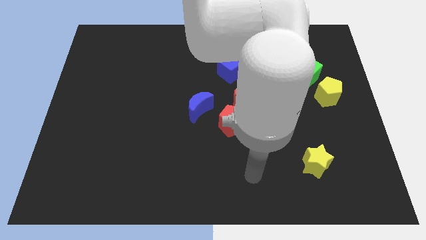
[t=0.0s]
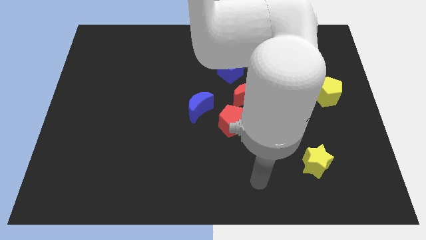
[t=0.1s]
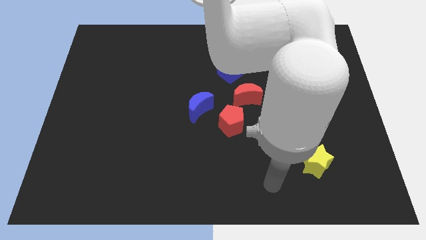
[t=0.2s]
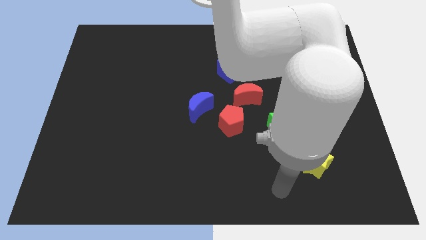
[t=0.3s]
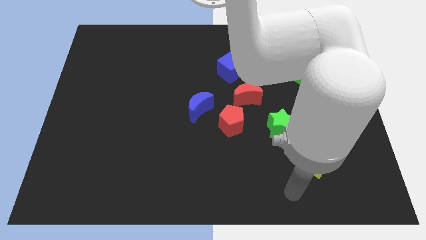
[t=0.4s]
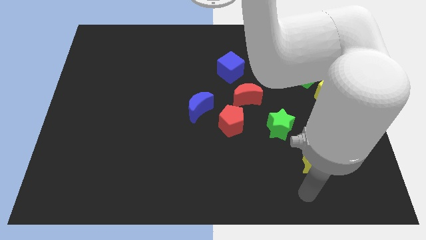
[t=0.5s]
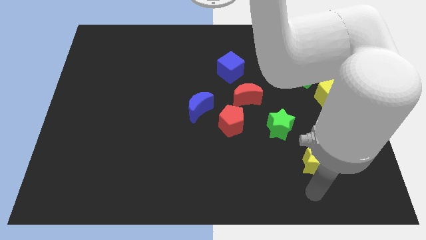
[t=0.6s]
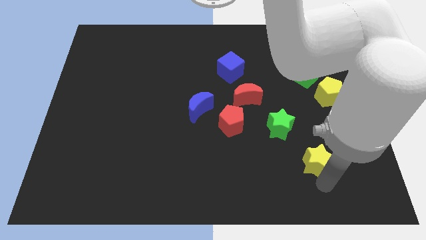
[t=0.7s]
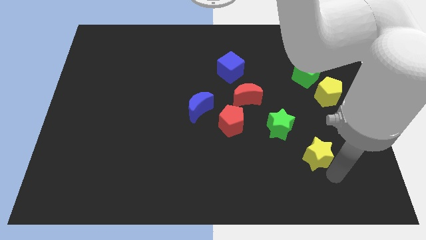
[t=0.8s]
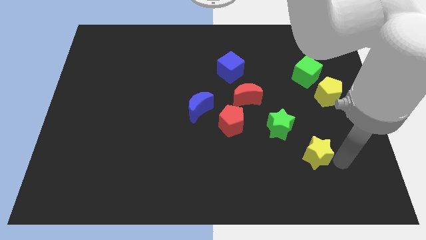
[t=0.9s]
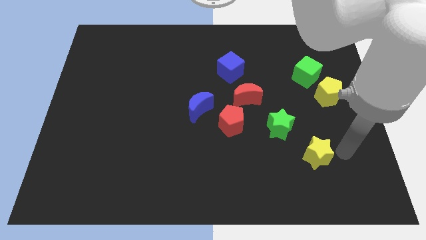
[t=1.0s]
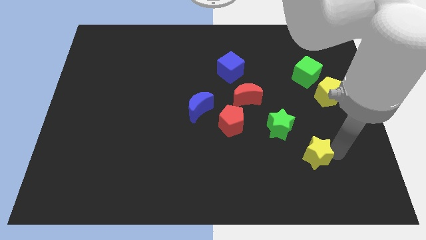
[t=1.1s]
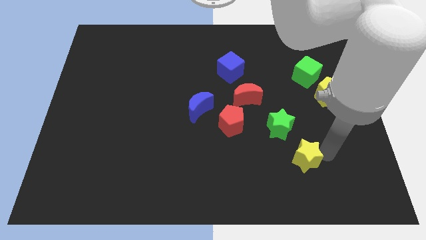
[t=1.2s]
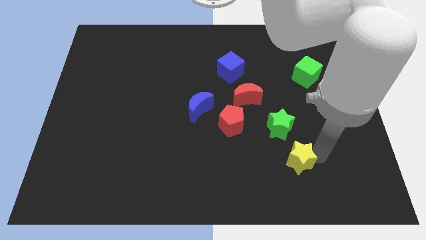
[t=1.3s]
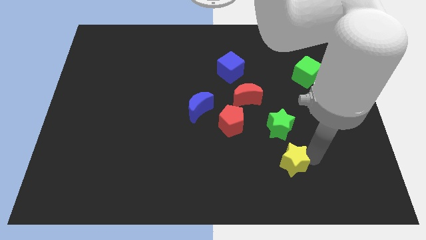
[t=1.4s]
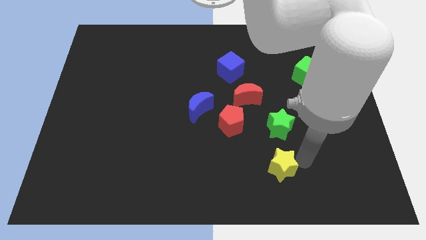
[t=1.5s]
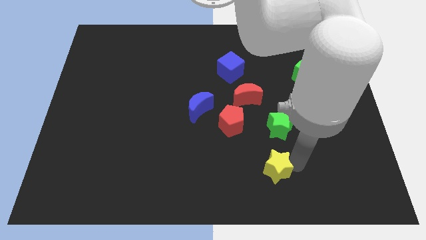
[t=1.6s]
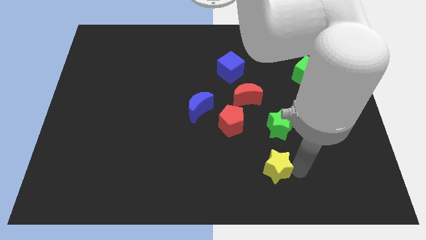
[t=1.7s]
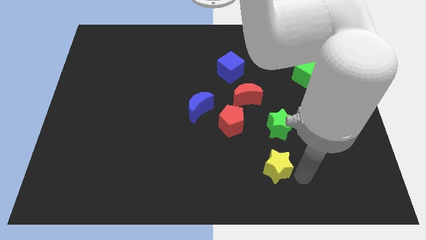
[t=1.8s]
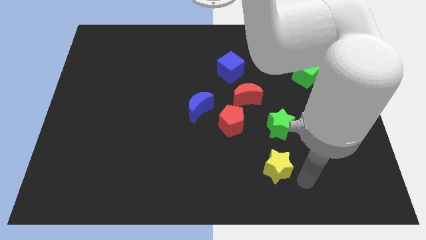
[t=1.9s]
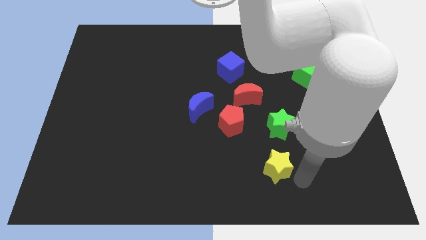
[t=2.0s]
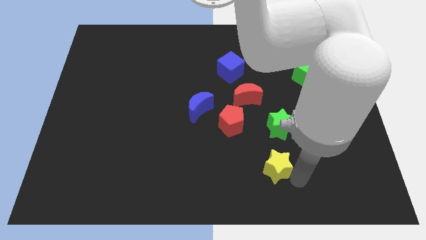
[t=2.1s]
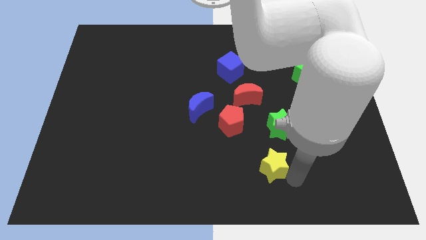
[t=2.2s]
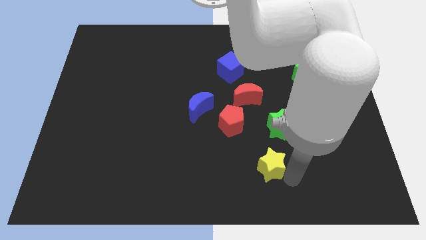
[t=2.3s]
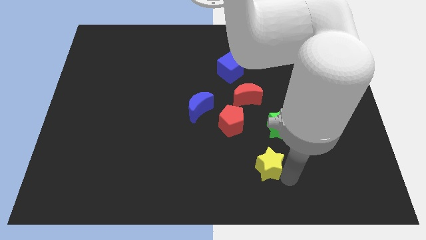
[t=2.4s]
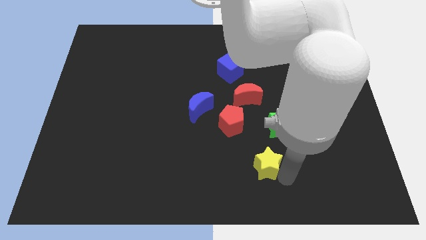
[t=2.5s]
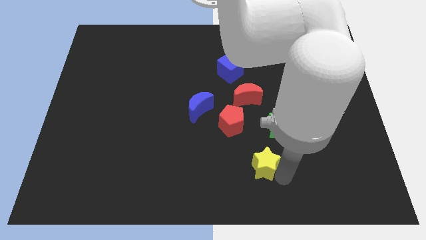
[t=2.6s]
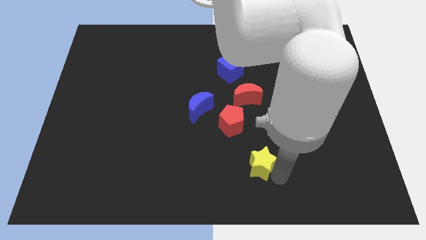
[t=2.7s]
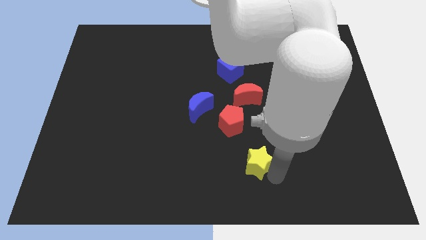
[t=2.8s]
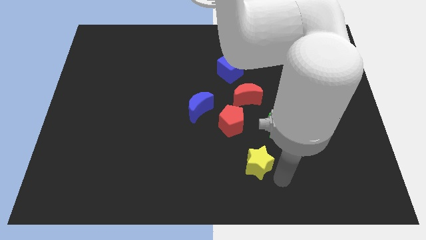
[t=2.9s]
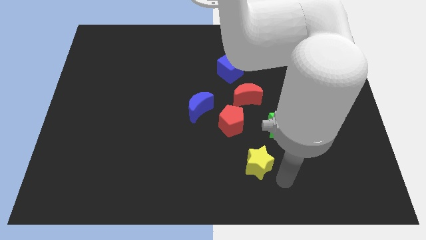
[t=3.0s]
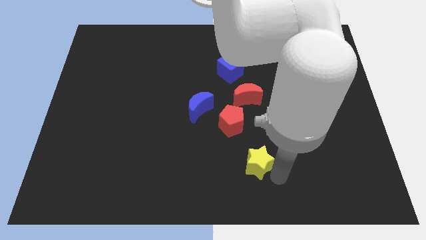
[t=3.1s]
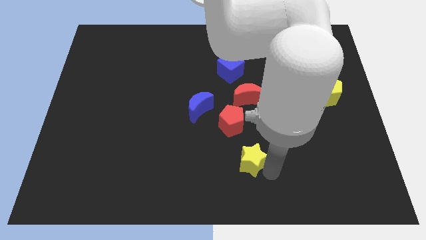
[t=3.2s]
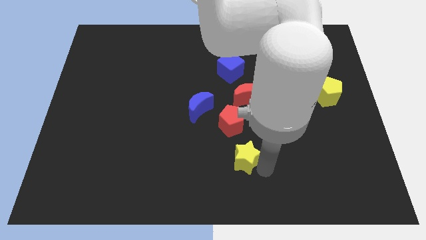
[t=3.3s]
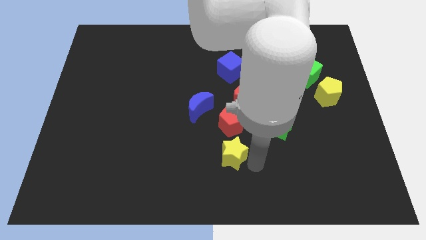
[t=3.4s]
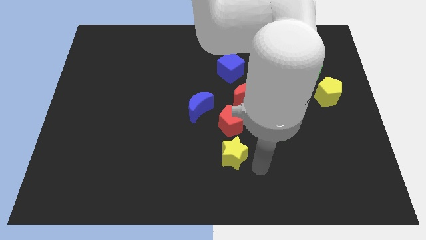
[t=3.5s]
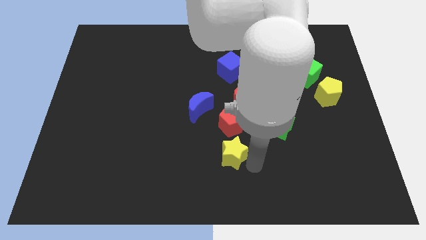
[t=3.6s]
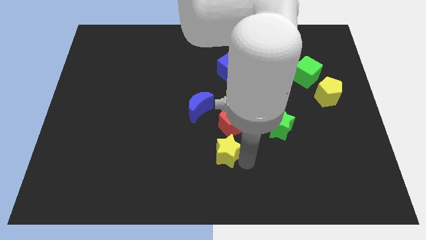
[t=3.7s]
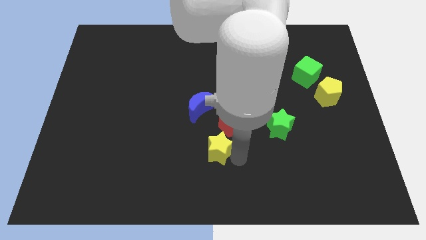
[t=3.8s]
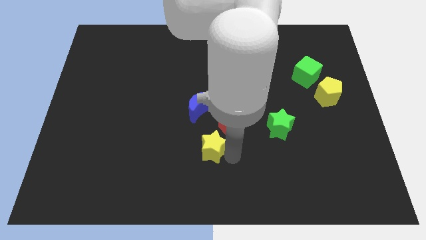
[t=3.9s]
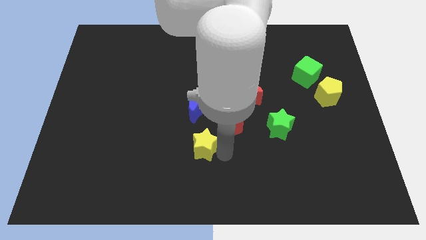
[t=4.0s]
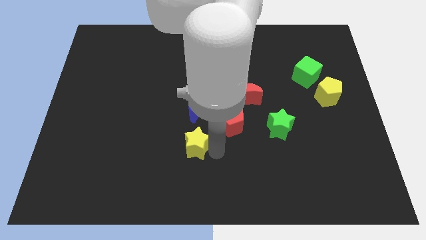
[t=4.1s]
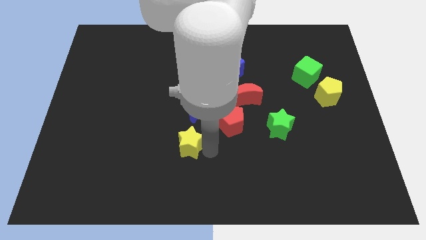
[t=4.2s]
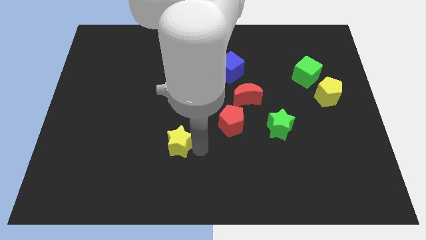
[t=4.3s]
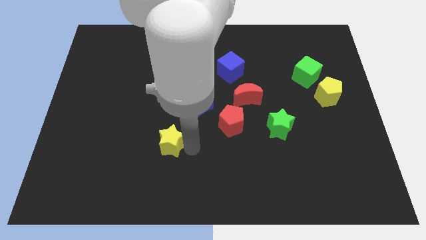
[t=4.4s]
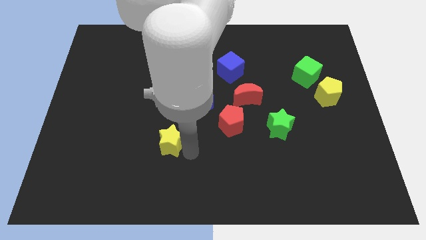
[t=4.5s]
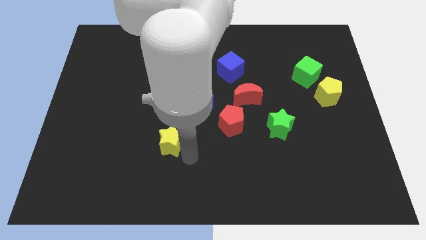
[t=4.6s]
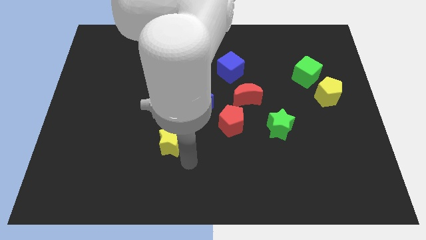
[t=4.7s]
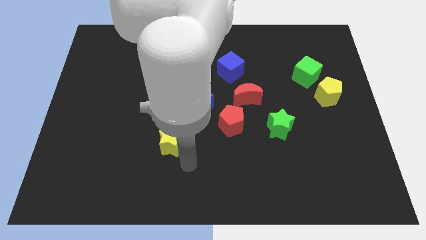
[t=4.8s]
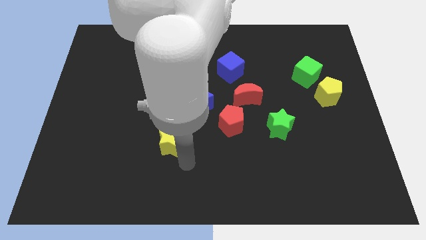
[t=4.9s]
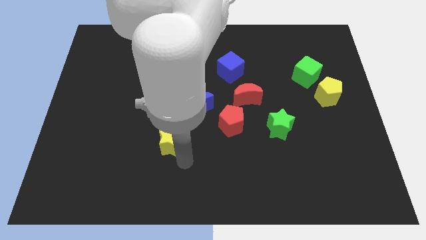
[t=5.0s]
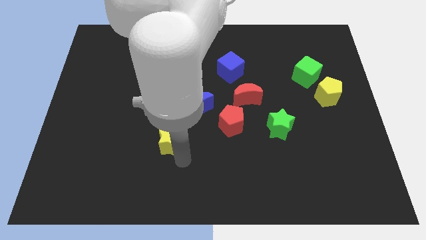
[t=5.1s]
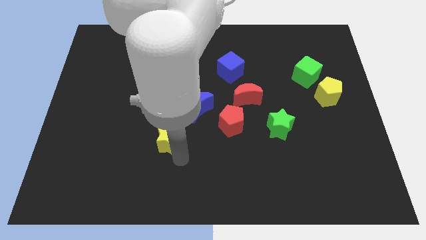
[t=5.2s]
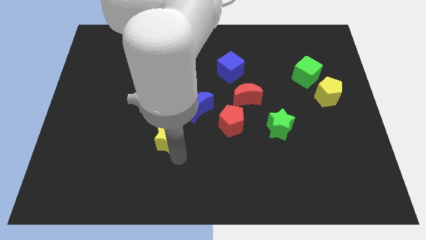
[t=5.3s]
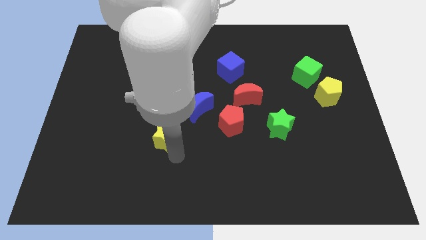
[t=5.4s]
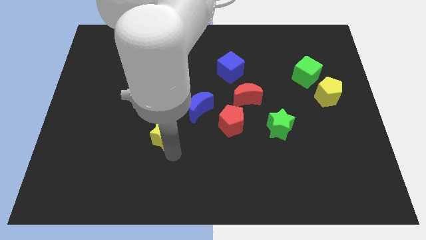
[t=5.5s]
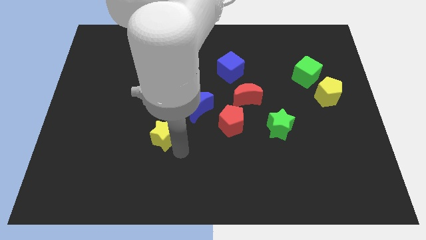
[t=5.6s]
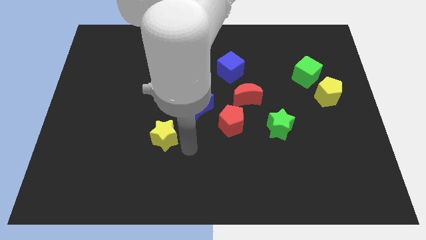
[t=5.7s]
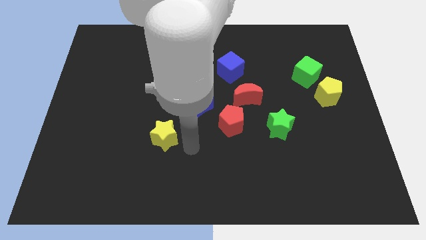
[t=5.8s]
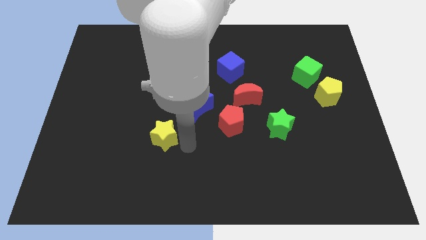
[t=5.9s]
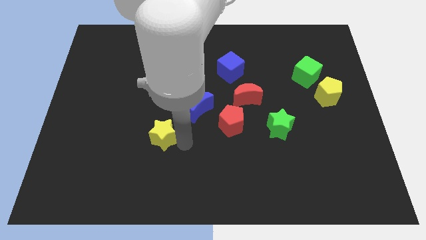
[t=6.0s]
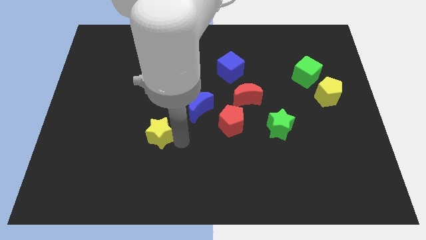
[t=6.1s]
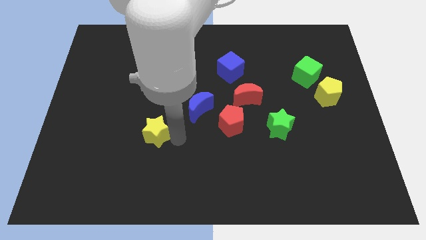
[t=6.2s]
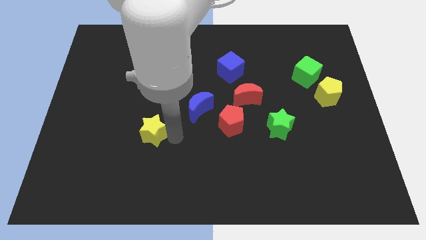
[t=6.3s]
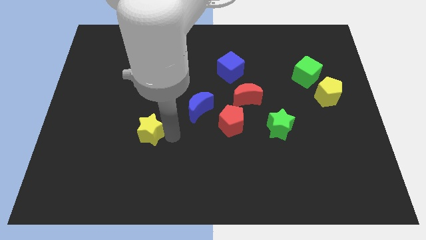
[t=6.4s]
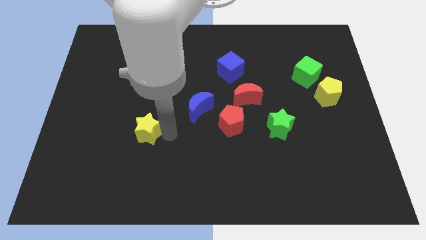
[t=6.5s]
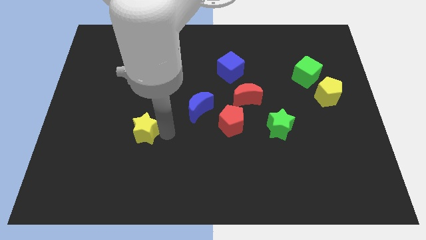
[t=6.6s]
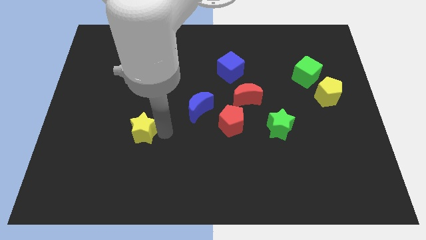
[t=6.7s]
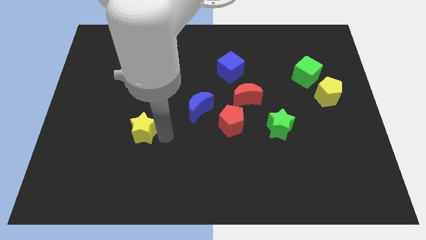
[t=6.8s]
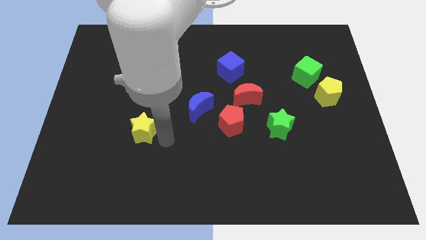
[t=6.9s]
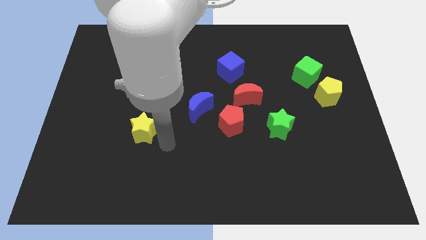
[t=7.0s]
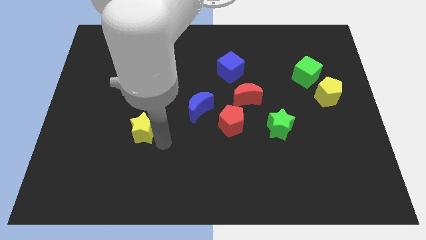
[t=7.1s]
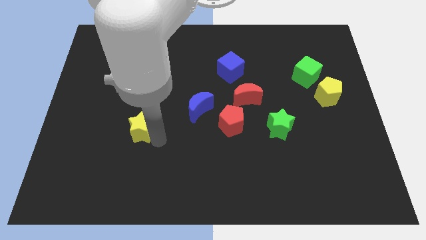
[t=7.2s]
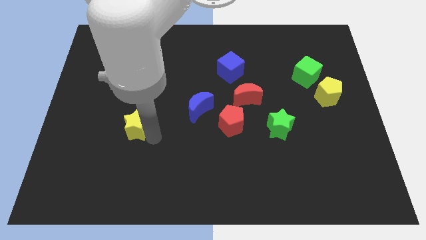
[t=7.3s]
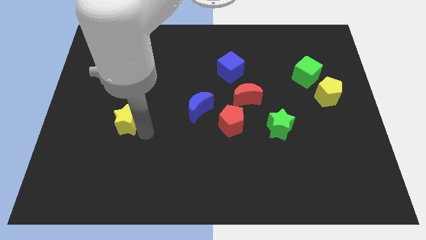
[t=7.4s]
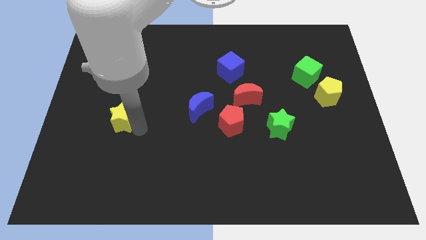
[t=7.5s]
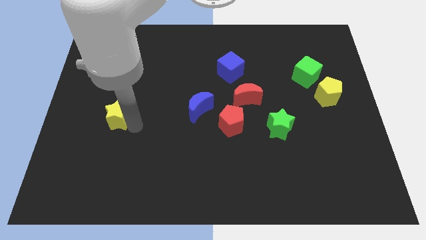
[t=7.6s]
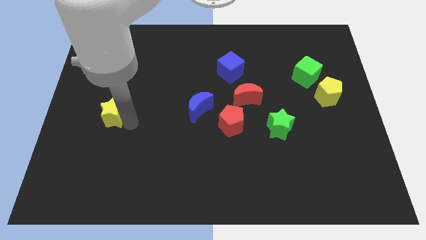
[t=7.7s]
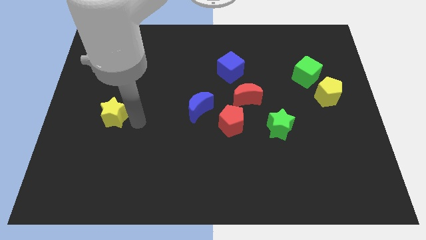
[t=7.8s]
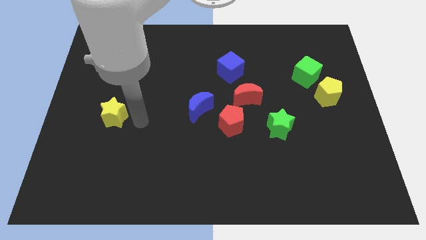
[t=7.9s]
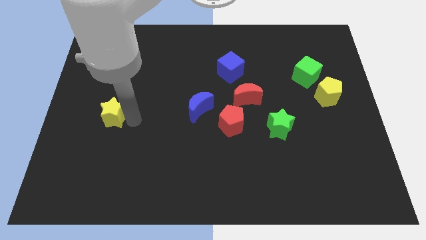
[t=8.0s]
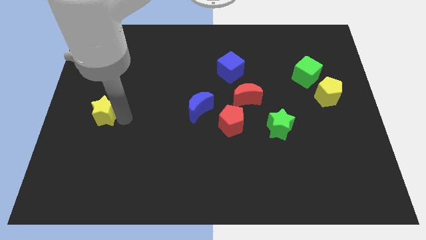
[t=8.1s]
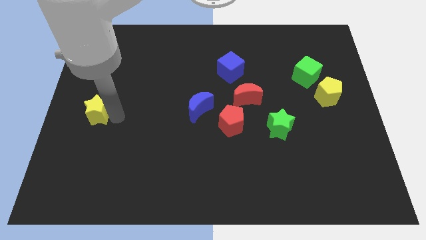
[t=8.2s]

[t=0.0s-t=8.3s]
slide the yellow star to the left side of the board
